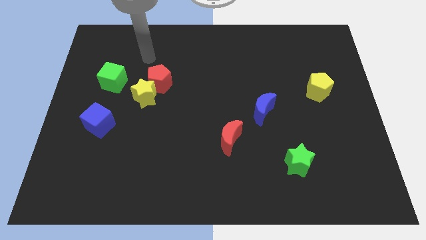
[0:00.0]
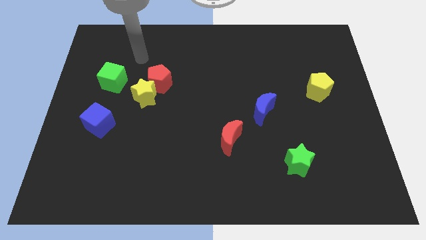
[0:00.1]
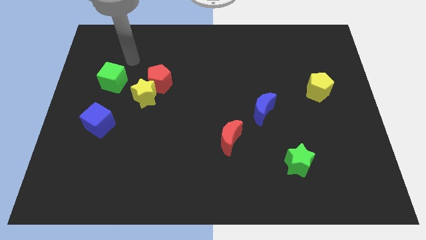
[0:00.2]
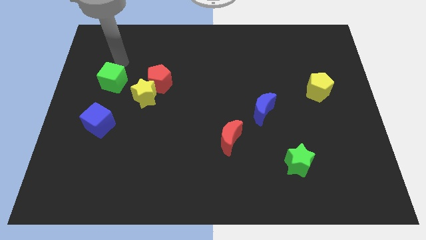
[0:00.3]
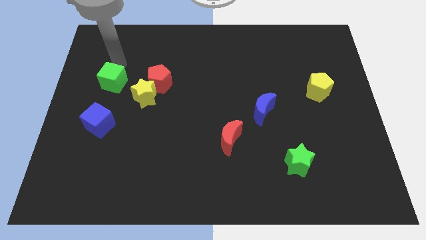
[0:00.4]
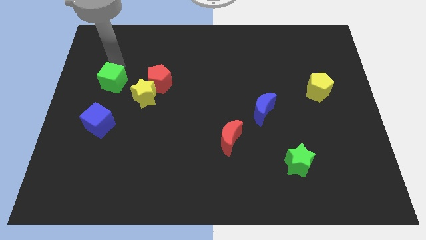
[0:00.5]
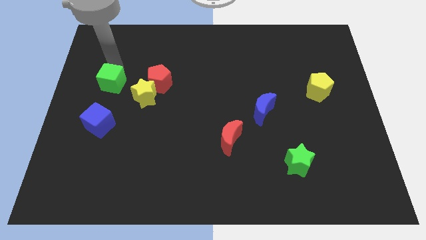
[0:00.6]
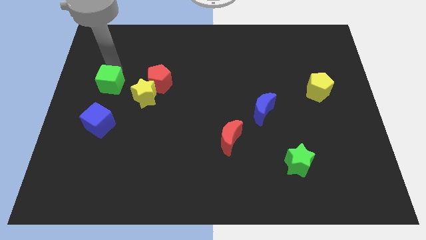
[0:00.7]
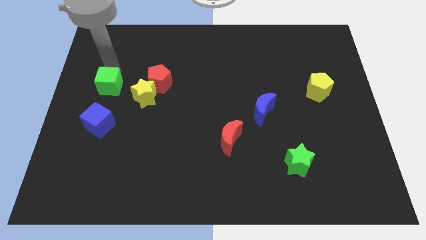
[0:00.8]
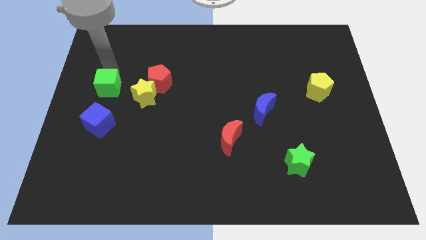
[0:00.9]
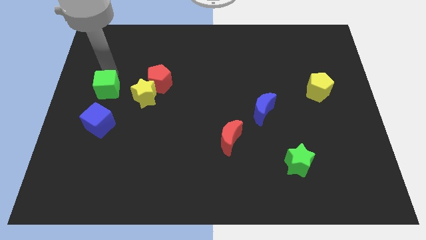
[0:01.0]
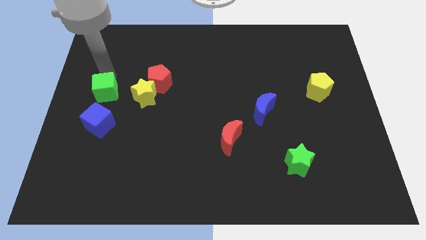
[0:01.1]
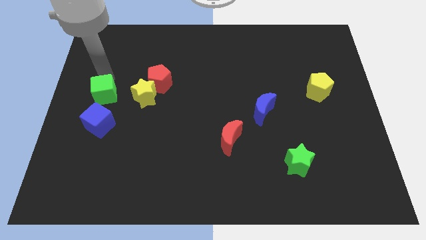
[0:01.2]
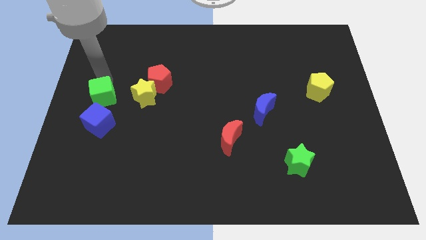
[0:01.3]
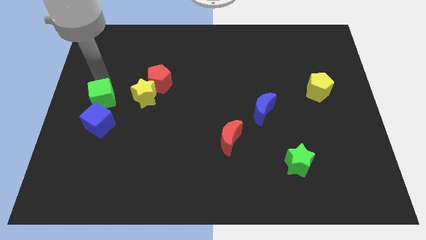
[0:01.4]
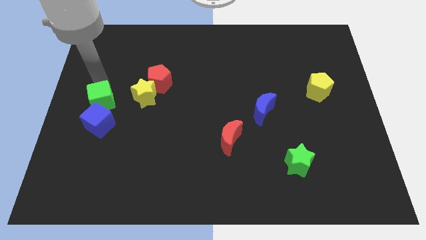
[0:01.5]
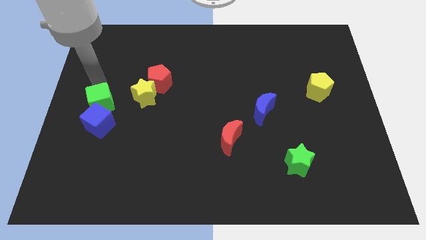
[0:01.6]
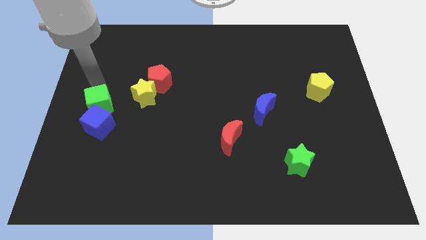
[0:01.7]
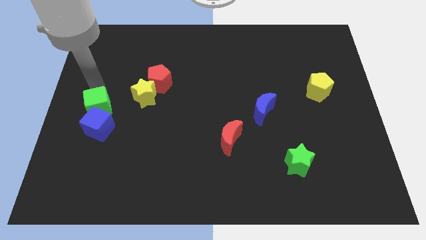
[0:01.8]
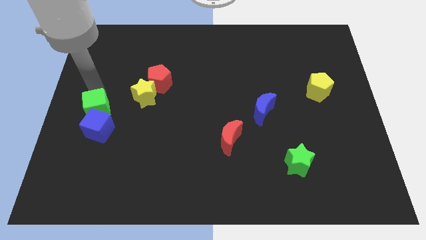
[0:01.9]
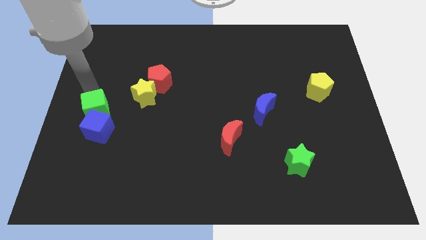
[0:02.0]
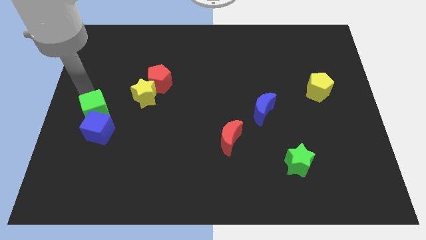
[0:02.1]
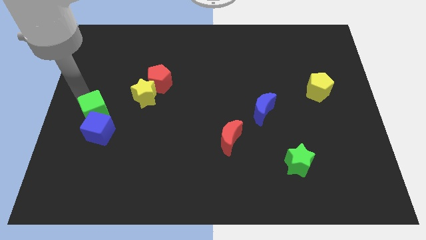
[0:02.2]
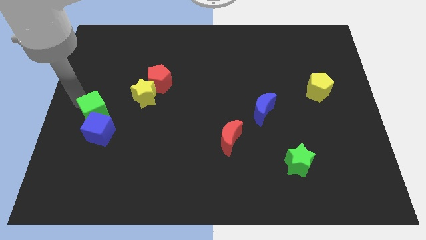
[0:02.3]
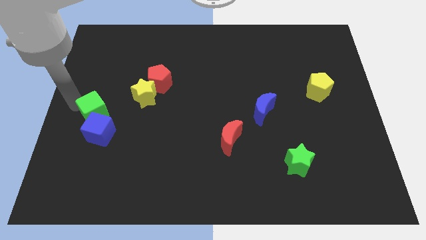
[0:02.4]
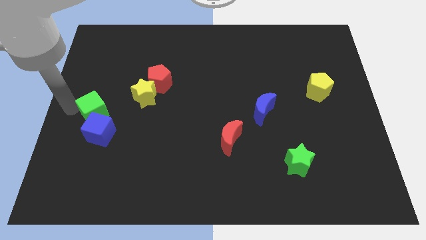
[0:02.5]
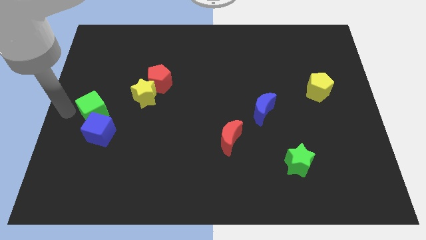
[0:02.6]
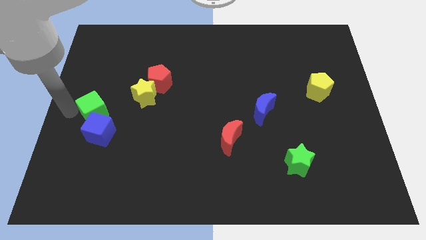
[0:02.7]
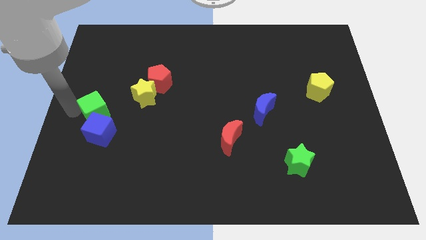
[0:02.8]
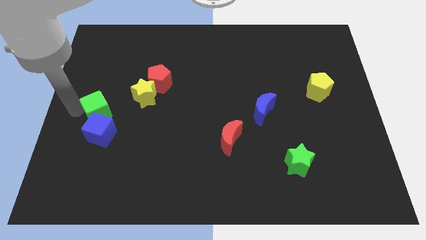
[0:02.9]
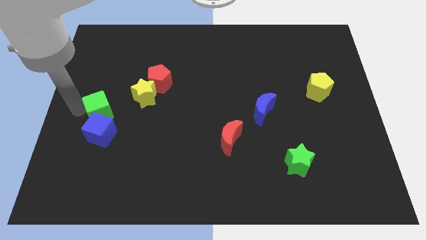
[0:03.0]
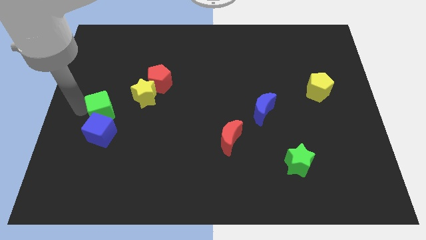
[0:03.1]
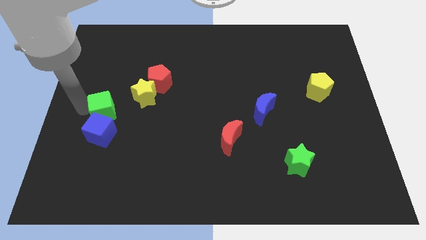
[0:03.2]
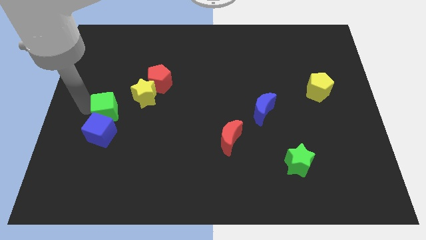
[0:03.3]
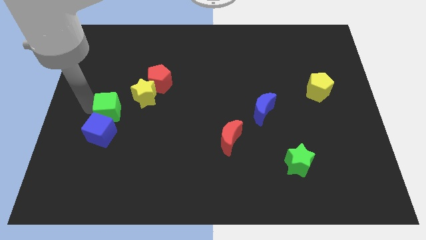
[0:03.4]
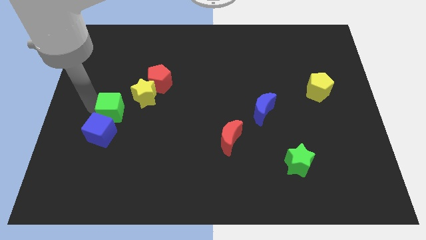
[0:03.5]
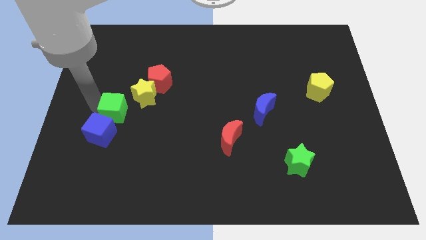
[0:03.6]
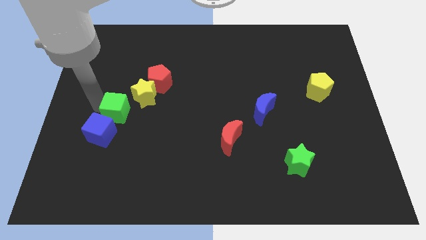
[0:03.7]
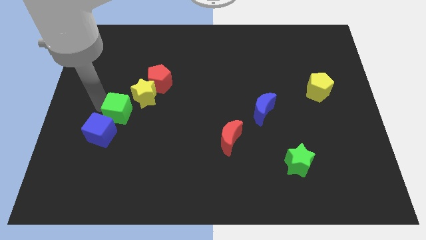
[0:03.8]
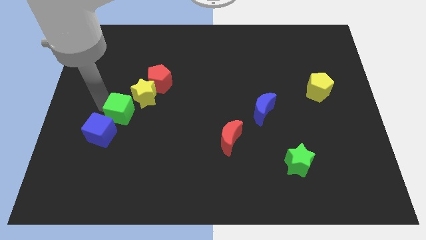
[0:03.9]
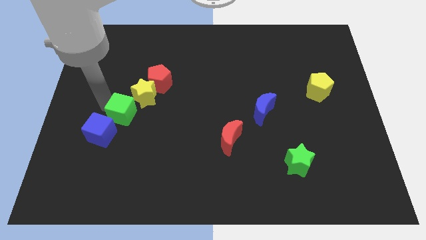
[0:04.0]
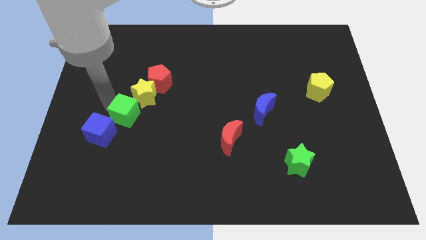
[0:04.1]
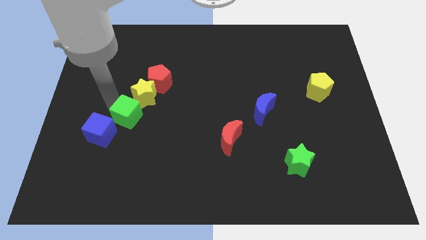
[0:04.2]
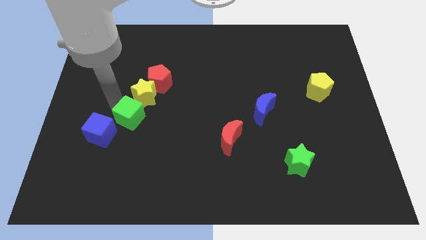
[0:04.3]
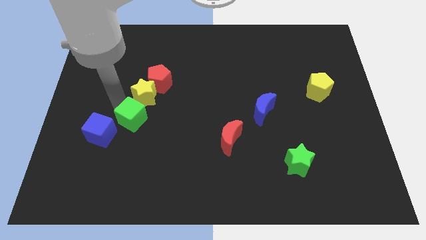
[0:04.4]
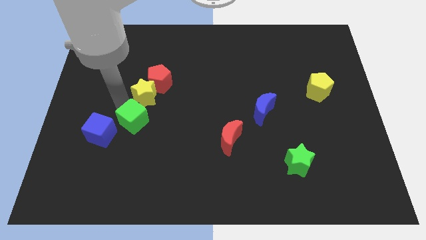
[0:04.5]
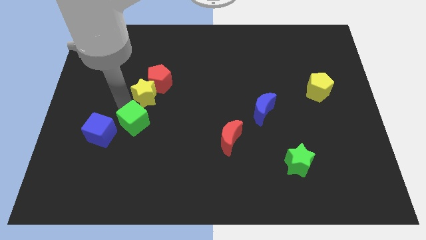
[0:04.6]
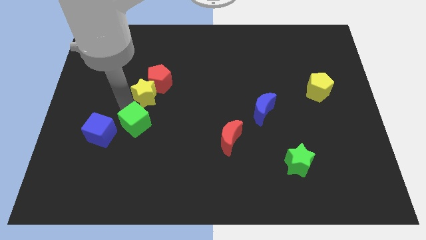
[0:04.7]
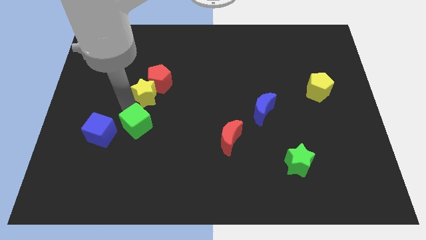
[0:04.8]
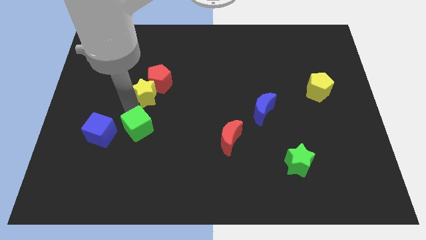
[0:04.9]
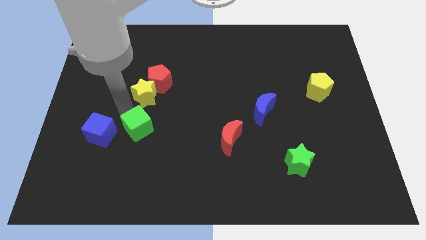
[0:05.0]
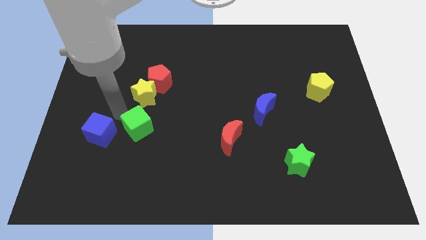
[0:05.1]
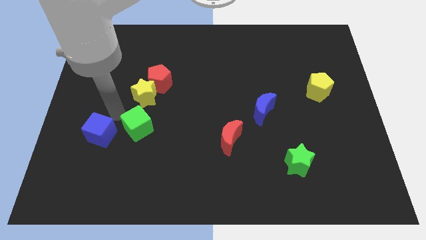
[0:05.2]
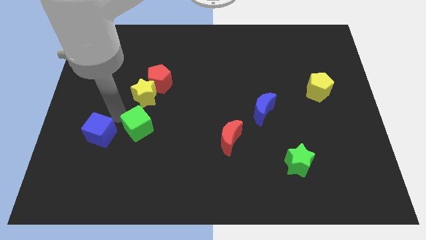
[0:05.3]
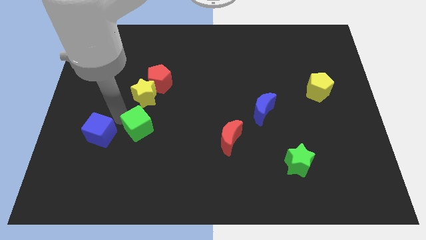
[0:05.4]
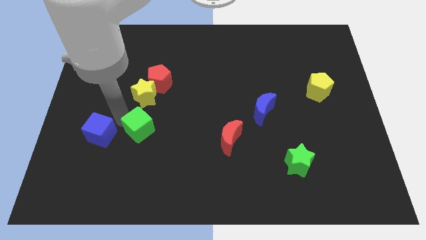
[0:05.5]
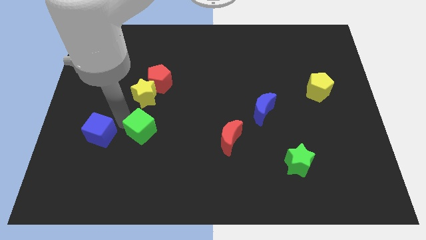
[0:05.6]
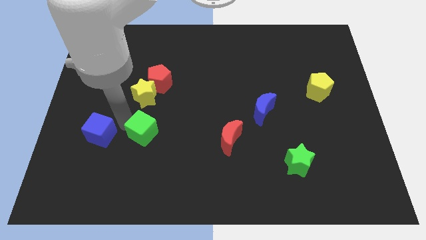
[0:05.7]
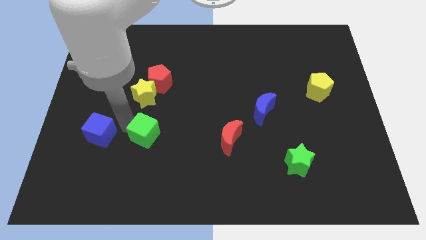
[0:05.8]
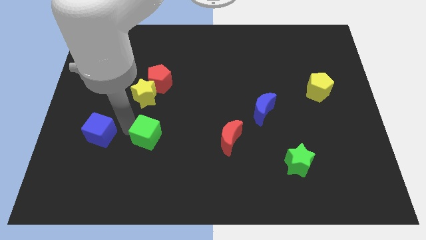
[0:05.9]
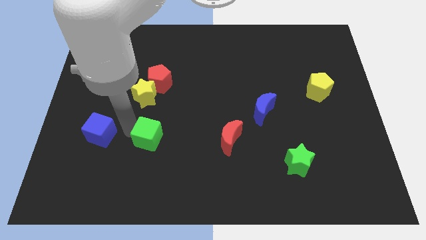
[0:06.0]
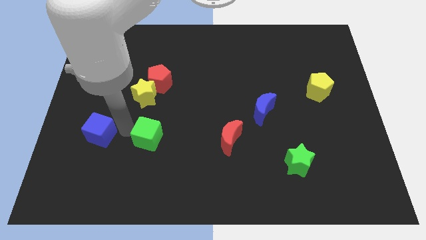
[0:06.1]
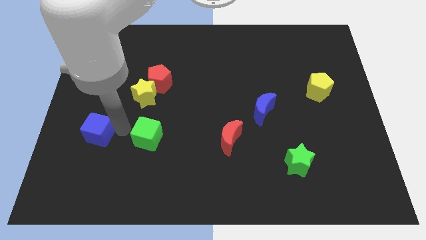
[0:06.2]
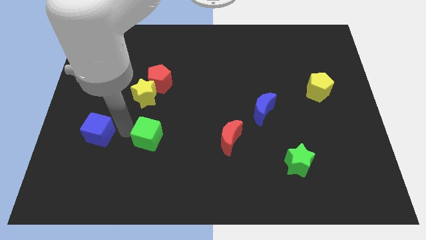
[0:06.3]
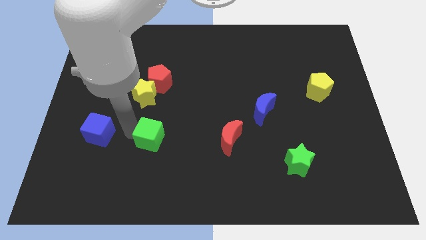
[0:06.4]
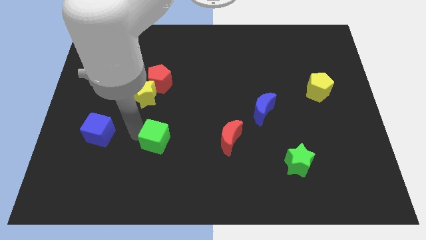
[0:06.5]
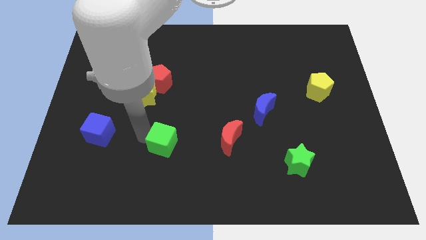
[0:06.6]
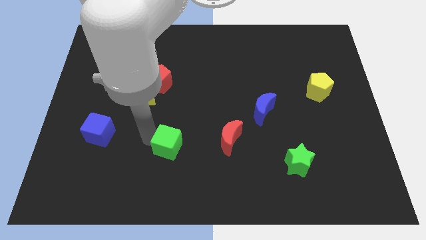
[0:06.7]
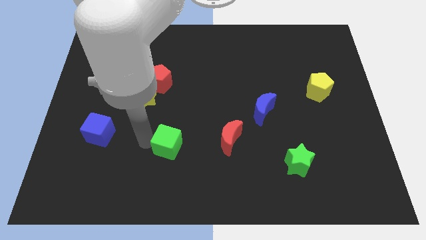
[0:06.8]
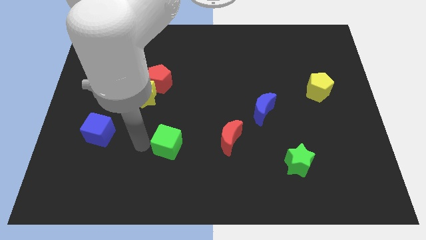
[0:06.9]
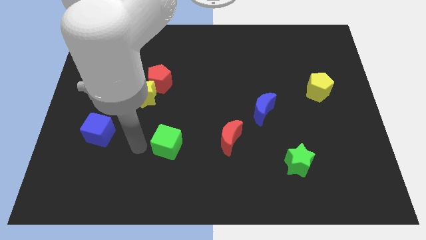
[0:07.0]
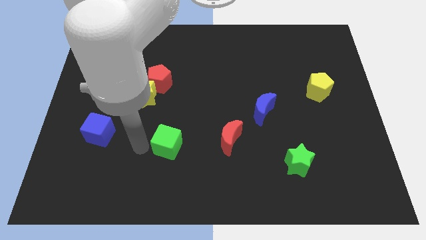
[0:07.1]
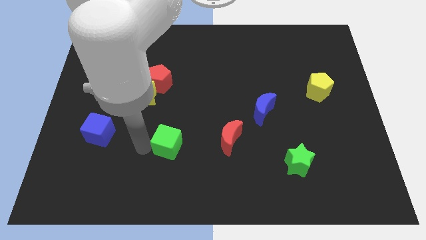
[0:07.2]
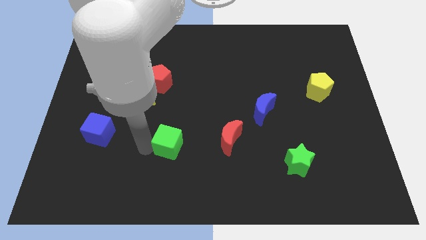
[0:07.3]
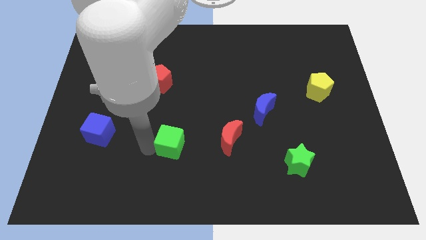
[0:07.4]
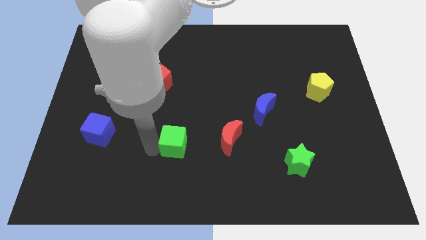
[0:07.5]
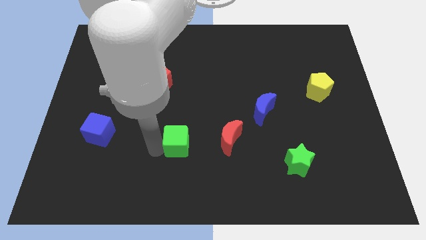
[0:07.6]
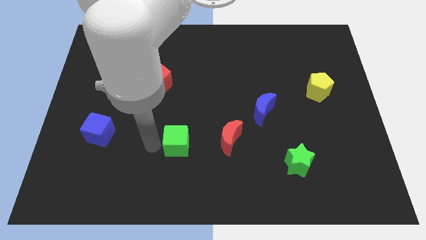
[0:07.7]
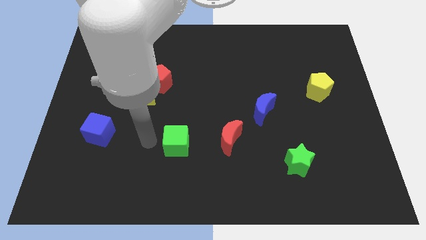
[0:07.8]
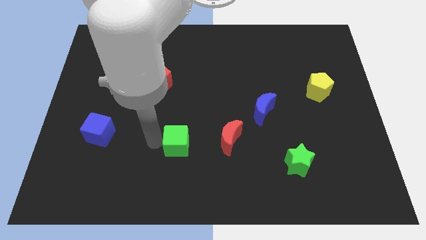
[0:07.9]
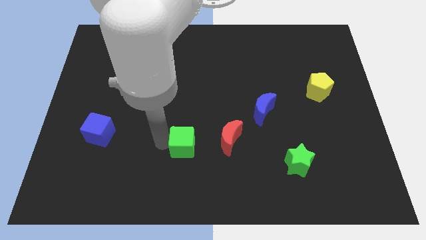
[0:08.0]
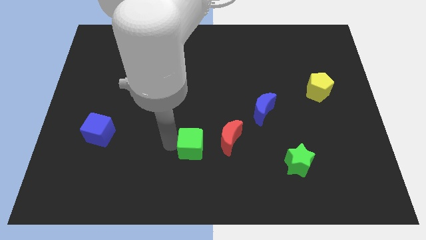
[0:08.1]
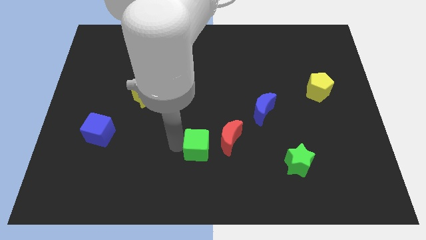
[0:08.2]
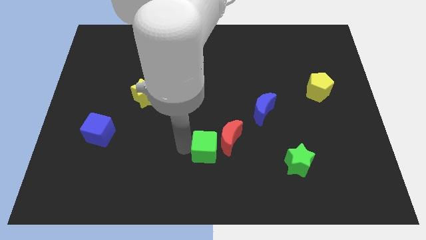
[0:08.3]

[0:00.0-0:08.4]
move the green cube next to the red moon
